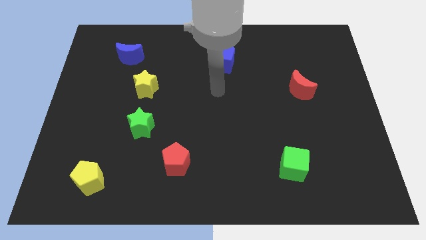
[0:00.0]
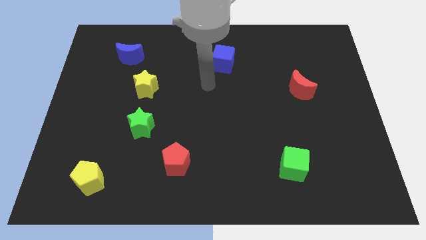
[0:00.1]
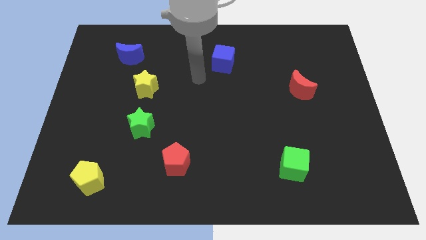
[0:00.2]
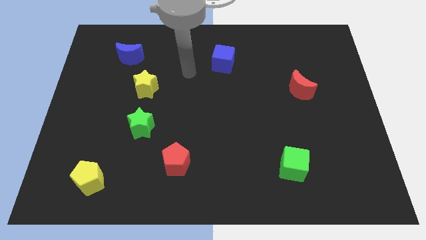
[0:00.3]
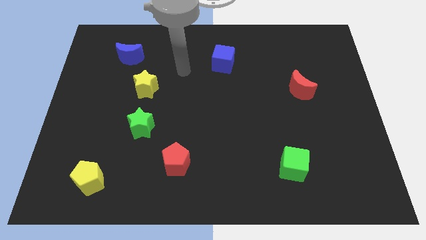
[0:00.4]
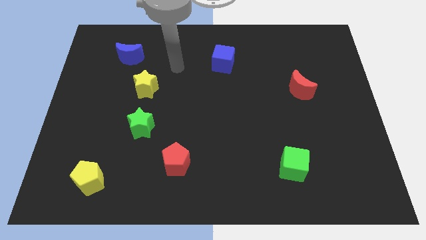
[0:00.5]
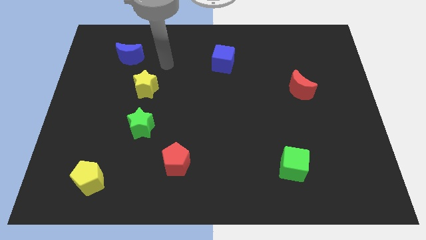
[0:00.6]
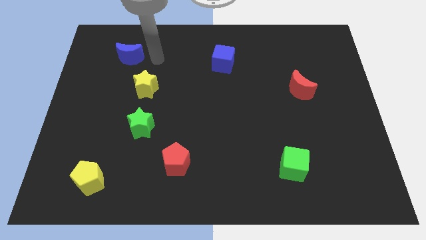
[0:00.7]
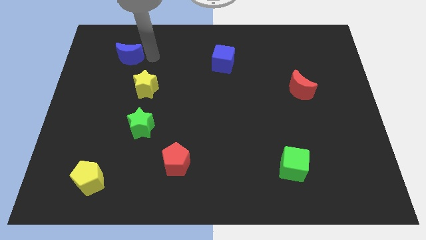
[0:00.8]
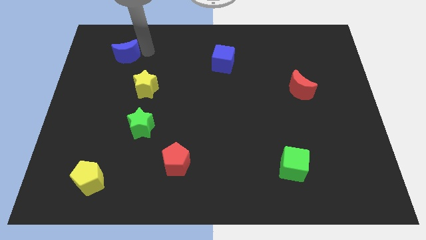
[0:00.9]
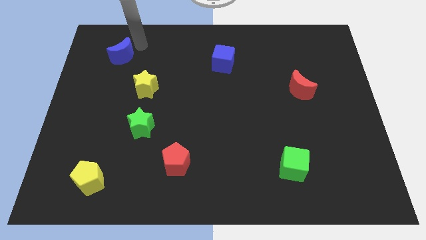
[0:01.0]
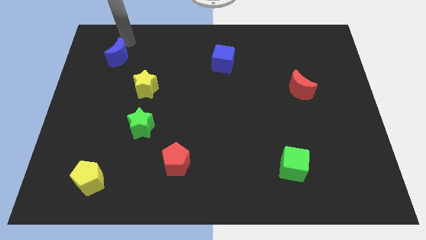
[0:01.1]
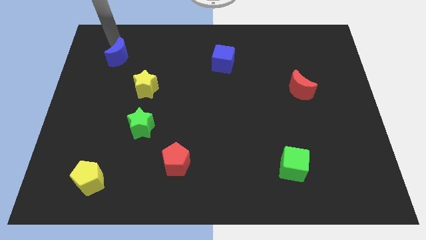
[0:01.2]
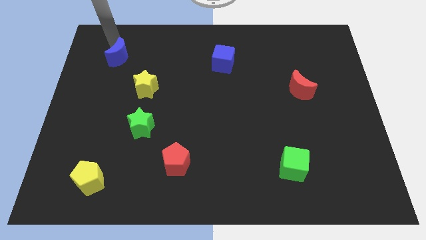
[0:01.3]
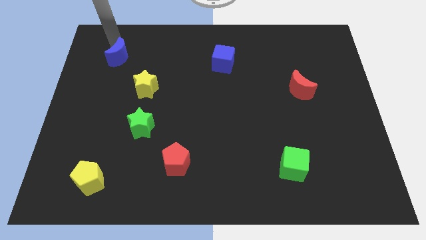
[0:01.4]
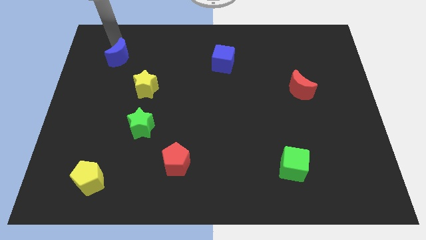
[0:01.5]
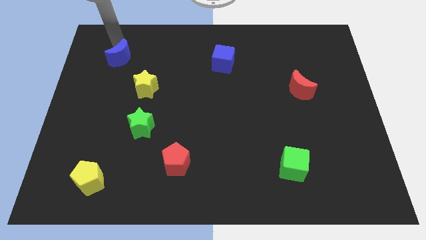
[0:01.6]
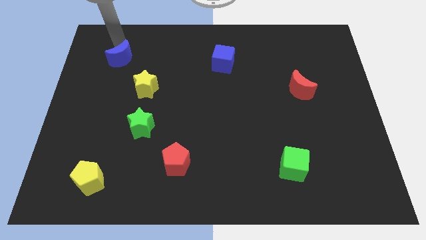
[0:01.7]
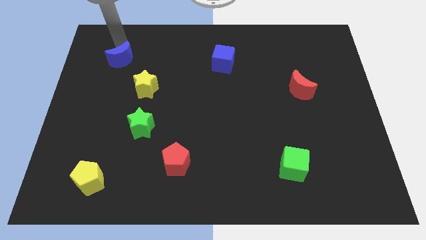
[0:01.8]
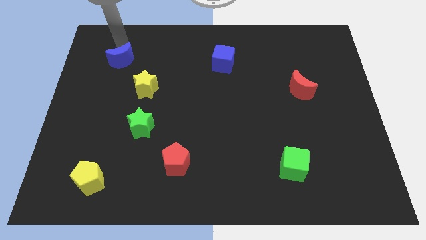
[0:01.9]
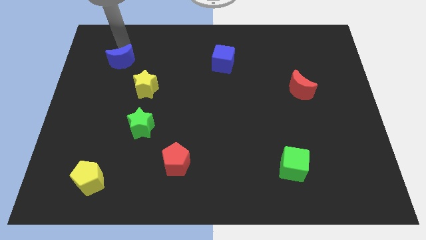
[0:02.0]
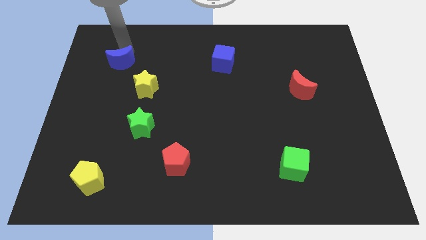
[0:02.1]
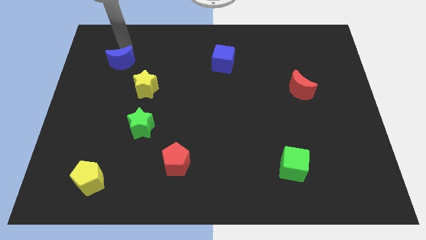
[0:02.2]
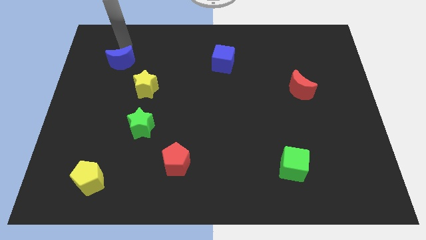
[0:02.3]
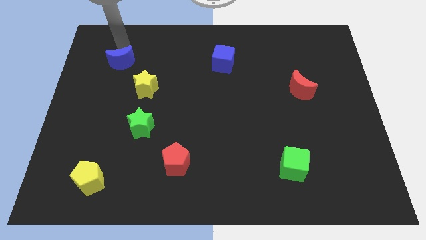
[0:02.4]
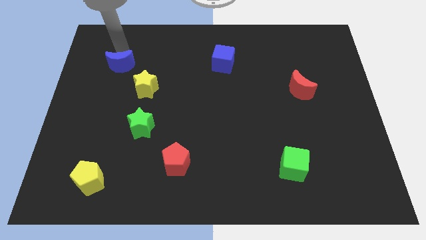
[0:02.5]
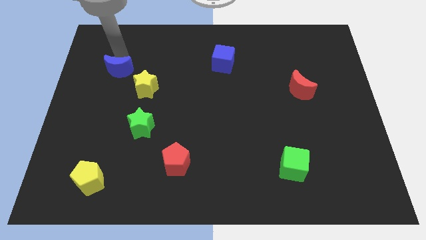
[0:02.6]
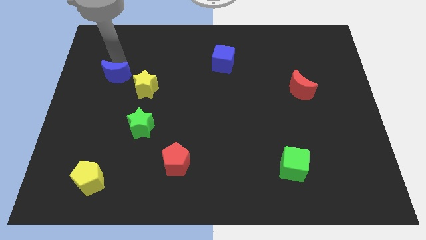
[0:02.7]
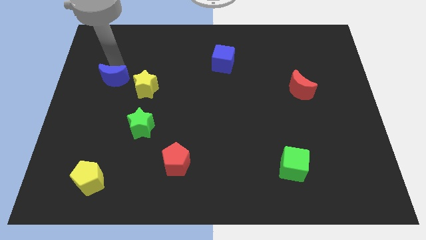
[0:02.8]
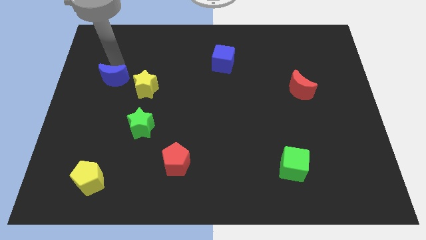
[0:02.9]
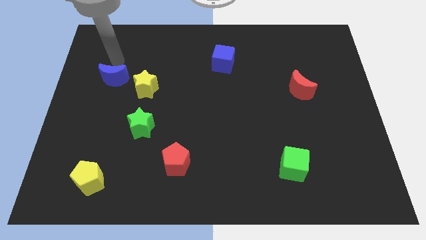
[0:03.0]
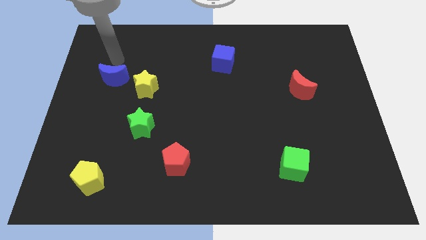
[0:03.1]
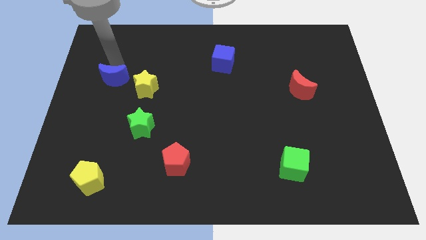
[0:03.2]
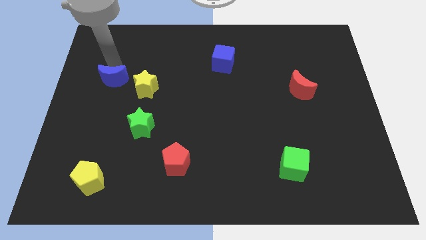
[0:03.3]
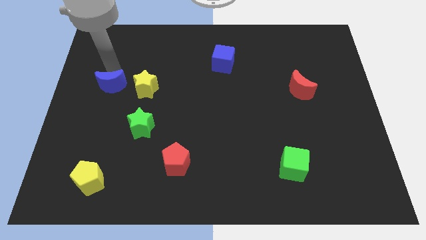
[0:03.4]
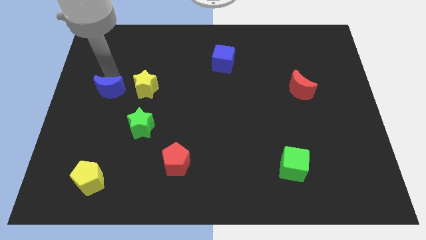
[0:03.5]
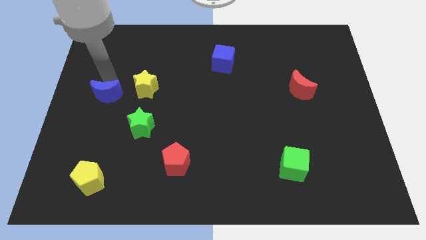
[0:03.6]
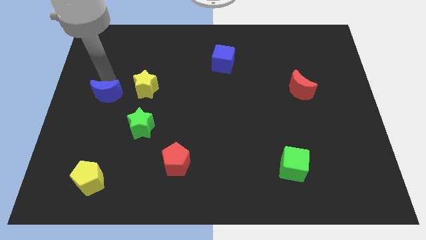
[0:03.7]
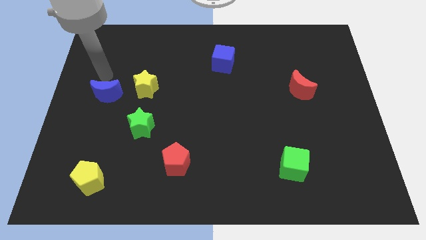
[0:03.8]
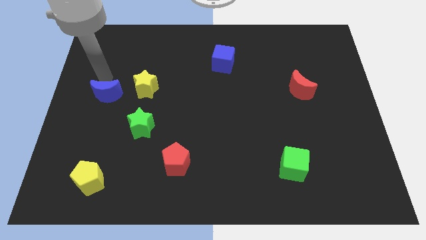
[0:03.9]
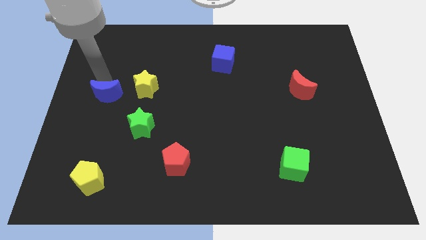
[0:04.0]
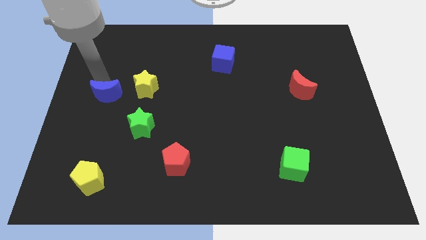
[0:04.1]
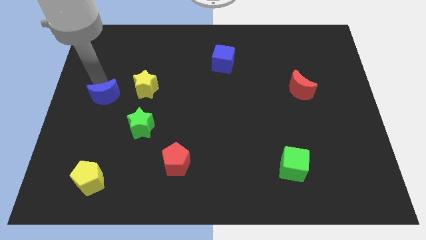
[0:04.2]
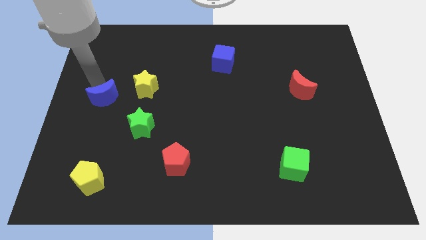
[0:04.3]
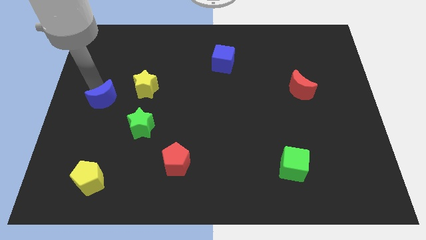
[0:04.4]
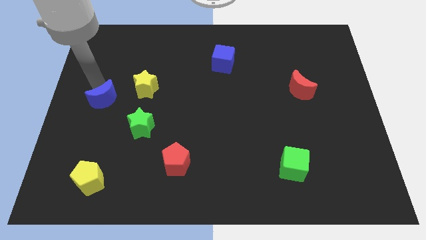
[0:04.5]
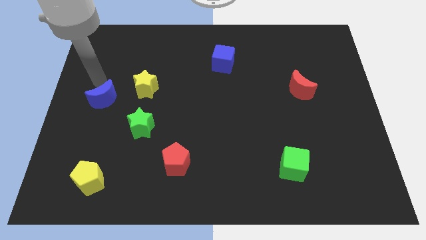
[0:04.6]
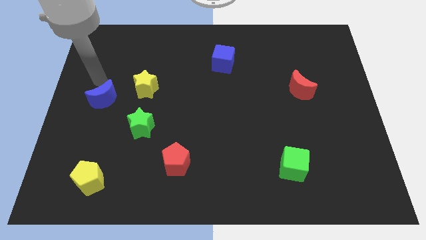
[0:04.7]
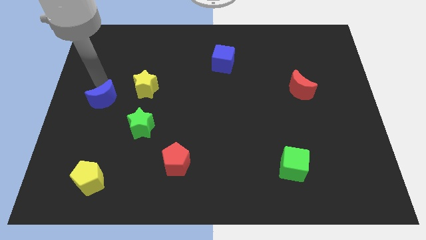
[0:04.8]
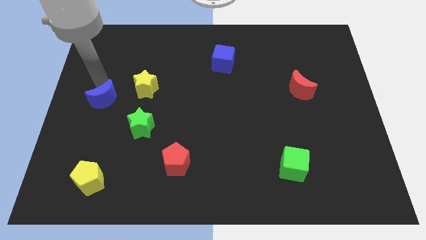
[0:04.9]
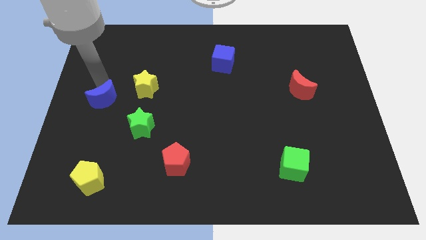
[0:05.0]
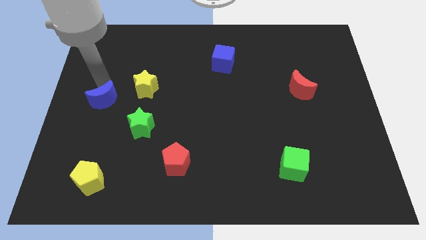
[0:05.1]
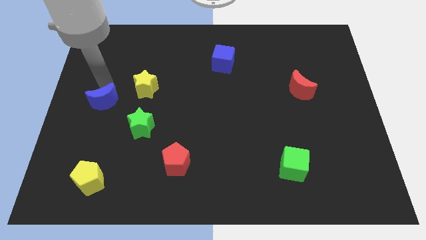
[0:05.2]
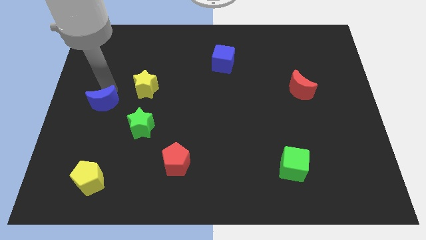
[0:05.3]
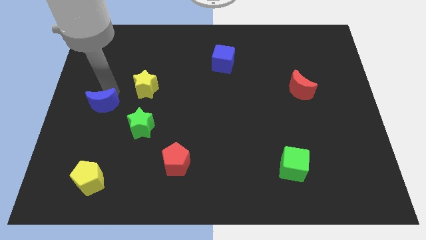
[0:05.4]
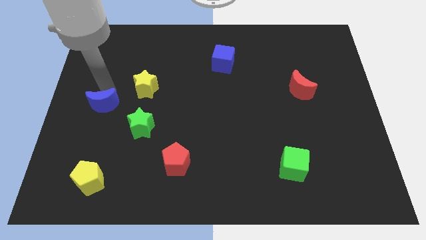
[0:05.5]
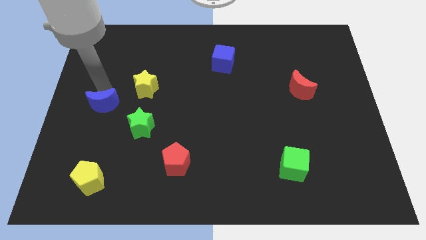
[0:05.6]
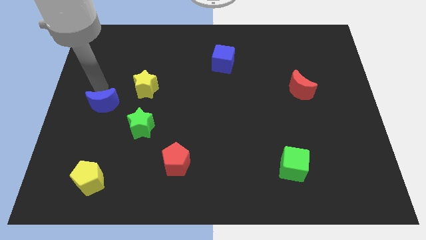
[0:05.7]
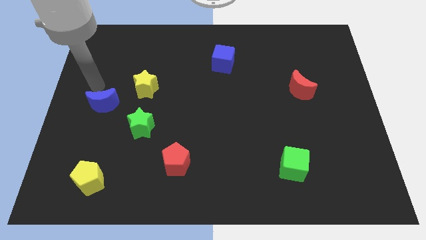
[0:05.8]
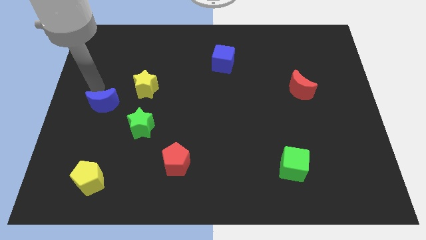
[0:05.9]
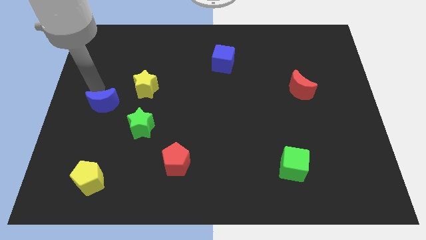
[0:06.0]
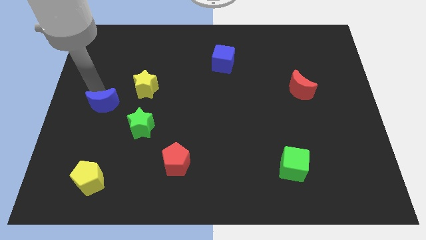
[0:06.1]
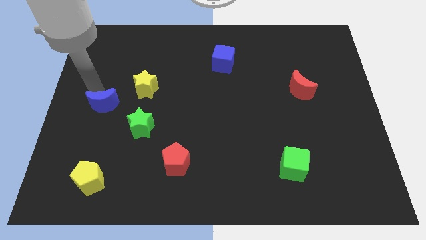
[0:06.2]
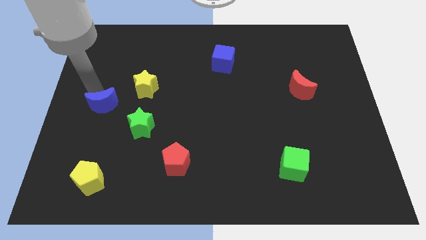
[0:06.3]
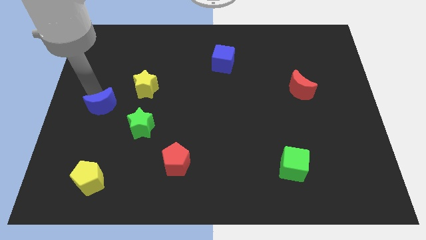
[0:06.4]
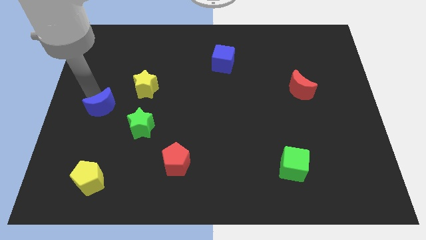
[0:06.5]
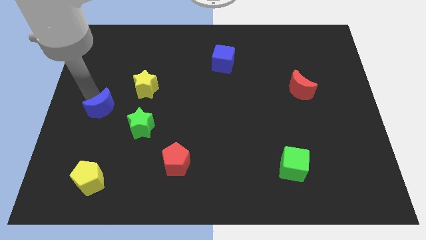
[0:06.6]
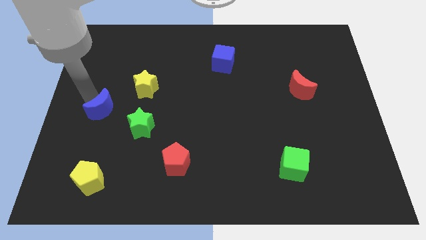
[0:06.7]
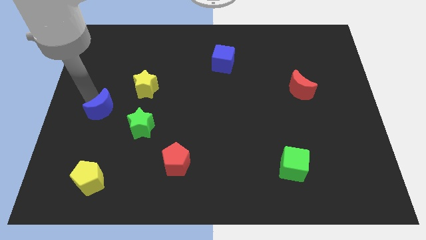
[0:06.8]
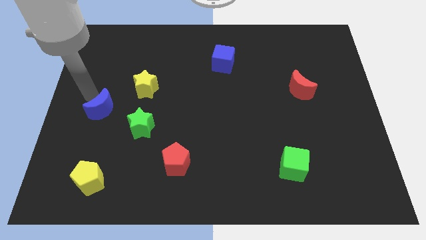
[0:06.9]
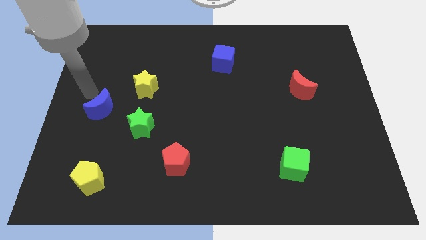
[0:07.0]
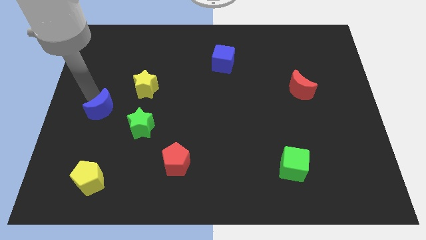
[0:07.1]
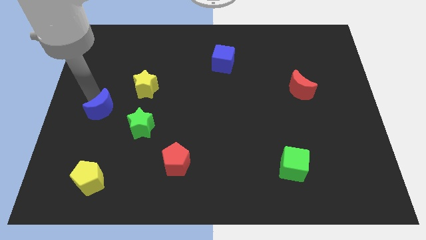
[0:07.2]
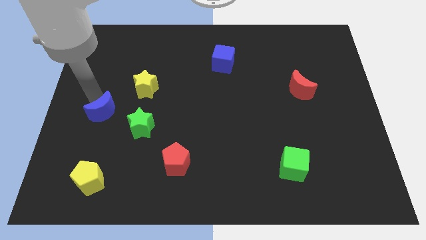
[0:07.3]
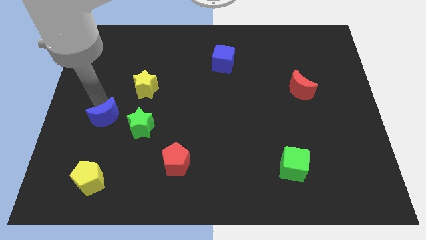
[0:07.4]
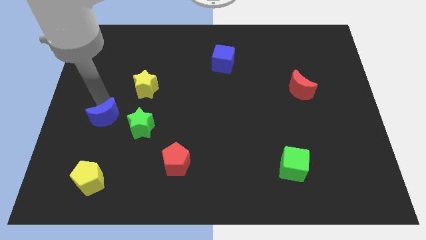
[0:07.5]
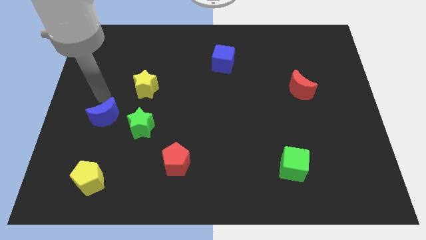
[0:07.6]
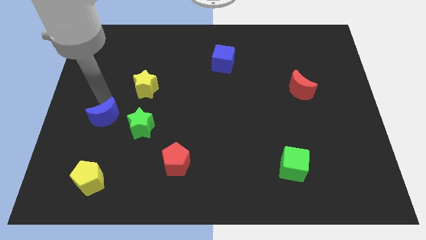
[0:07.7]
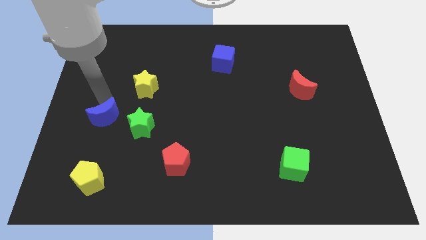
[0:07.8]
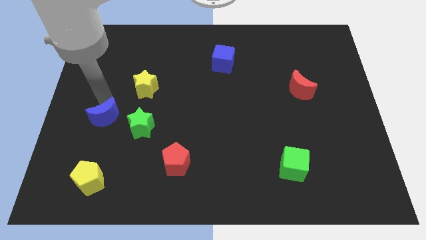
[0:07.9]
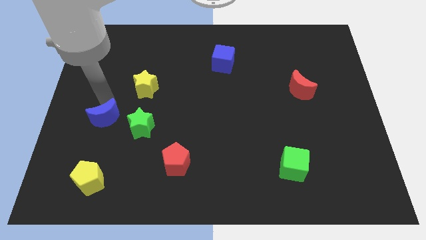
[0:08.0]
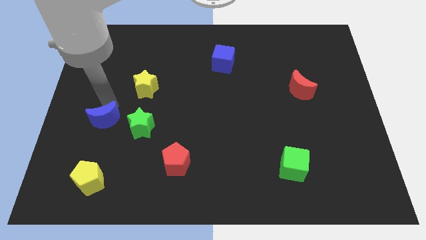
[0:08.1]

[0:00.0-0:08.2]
move the blue moon downwards
